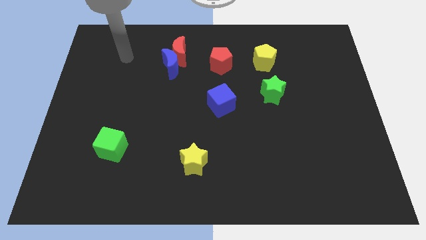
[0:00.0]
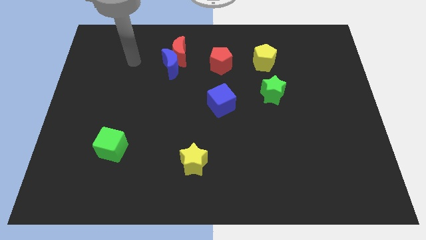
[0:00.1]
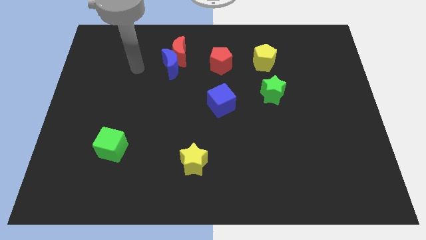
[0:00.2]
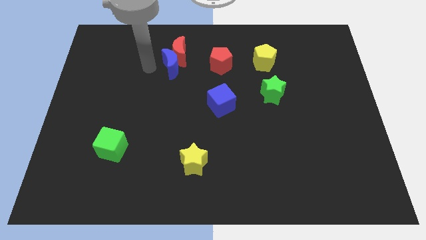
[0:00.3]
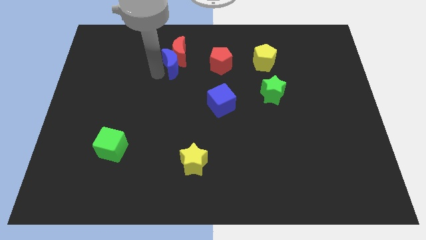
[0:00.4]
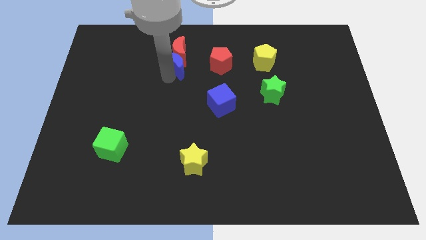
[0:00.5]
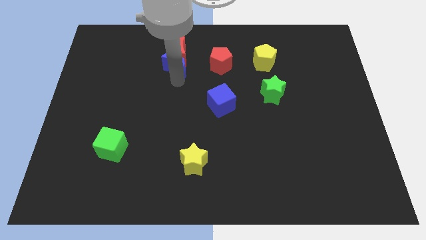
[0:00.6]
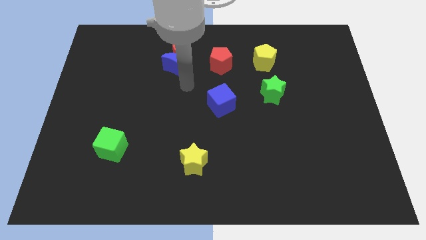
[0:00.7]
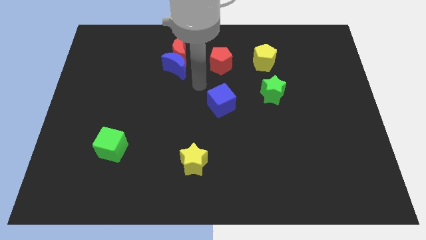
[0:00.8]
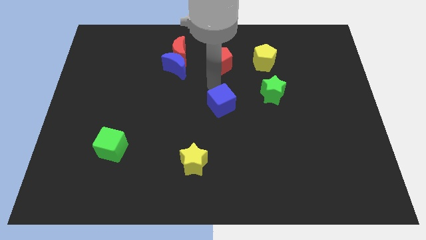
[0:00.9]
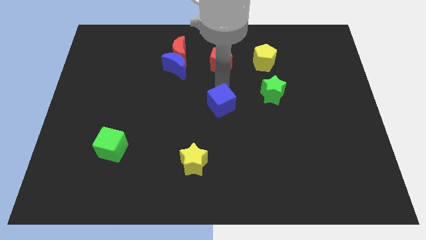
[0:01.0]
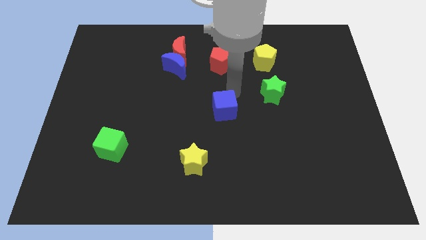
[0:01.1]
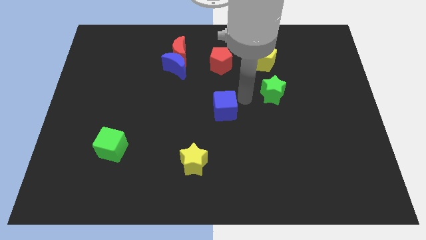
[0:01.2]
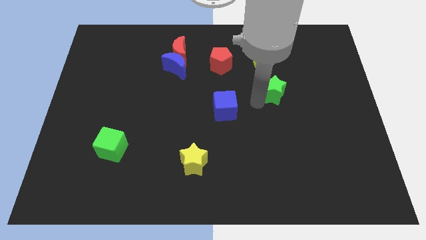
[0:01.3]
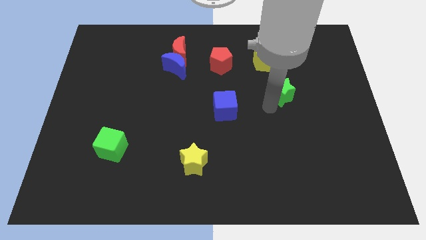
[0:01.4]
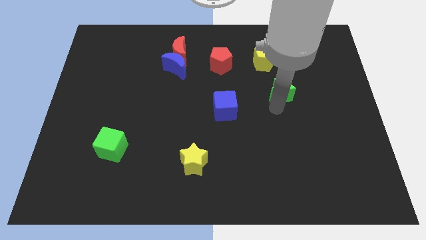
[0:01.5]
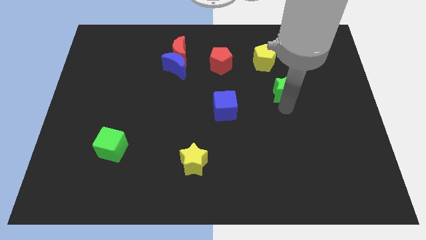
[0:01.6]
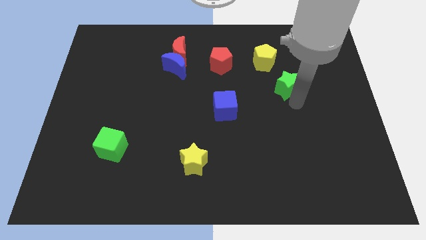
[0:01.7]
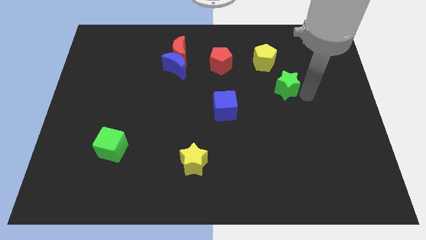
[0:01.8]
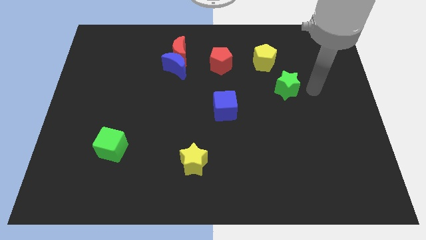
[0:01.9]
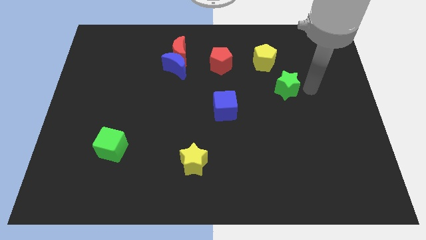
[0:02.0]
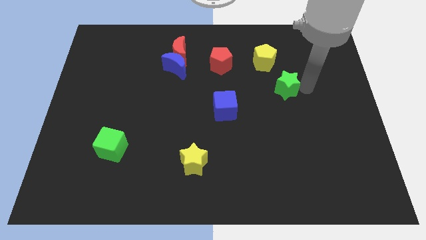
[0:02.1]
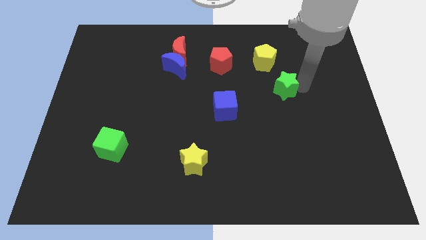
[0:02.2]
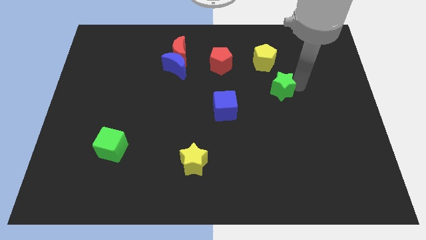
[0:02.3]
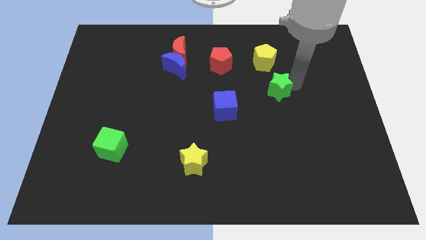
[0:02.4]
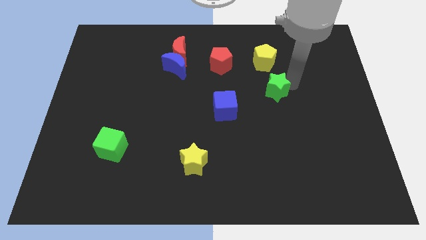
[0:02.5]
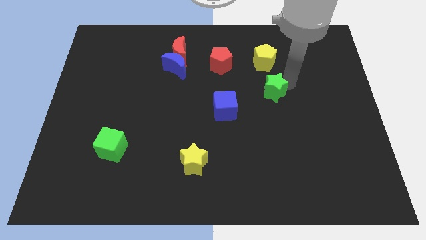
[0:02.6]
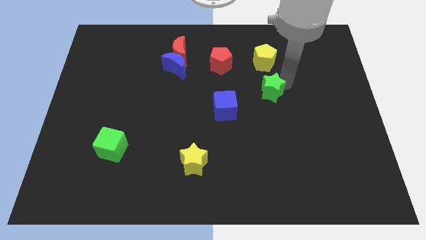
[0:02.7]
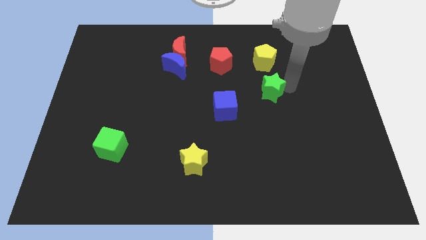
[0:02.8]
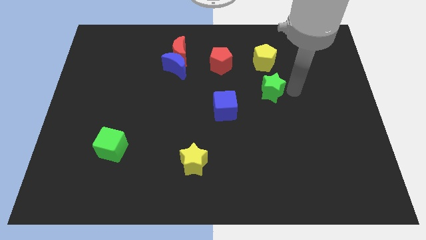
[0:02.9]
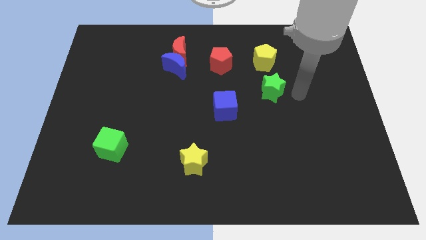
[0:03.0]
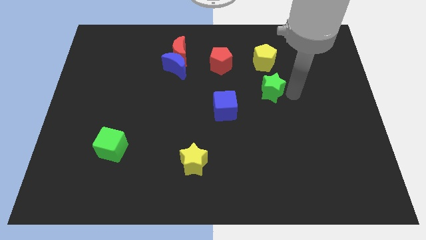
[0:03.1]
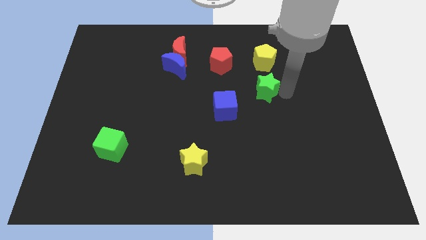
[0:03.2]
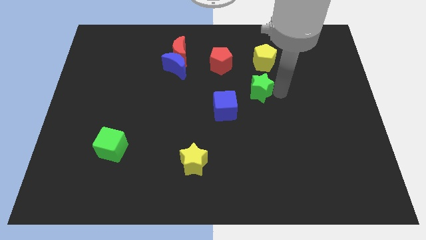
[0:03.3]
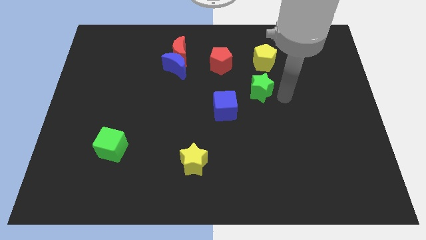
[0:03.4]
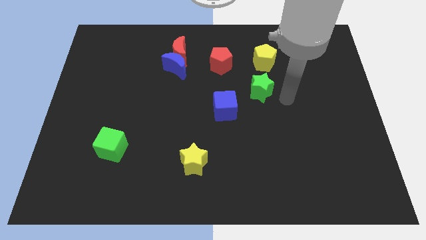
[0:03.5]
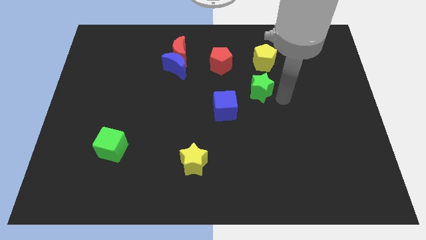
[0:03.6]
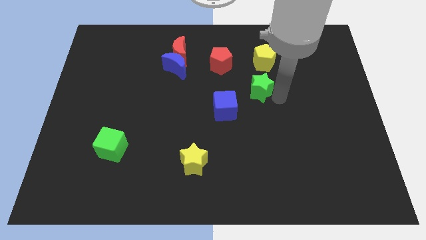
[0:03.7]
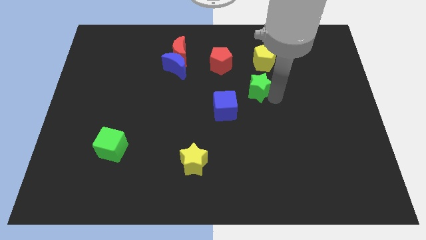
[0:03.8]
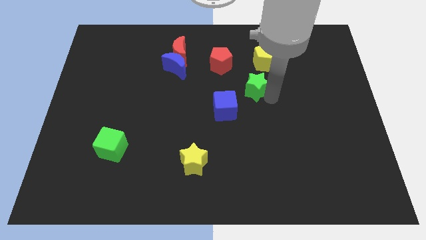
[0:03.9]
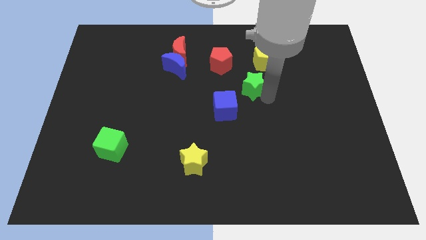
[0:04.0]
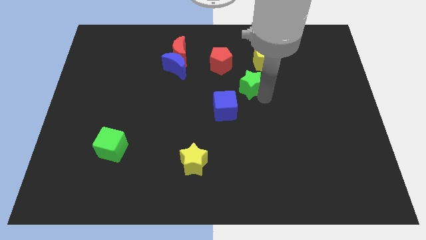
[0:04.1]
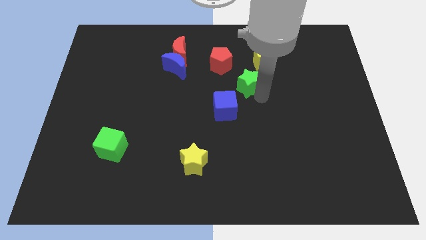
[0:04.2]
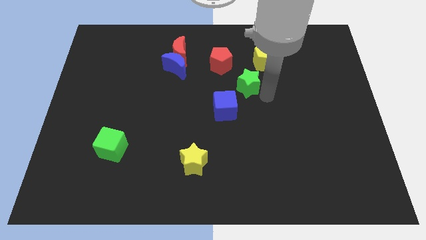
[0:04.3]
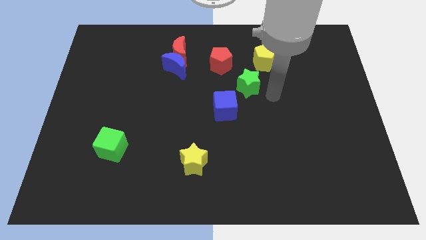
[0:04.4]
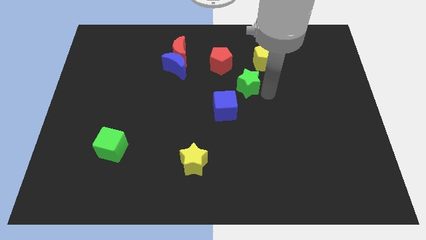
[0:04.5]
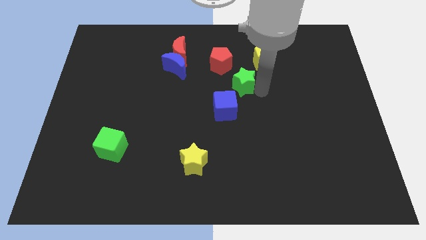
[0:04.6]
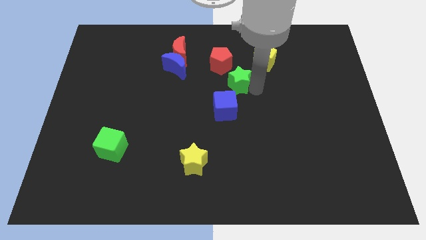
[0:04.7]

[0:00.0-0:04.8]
push the green star slightly to the left

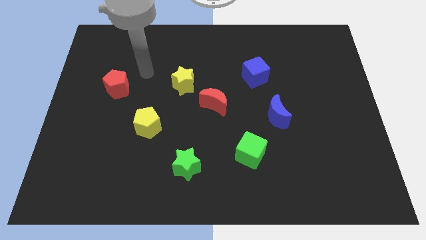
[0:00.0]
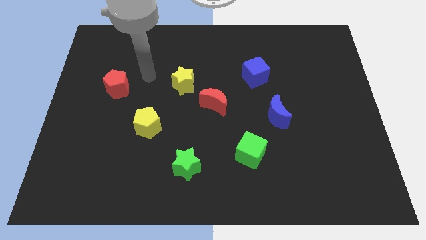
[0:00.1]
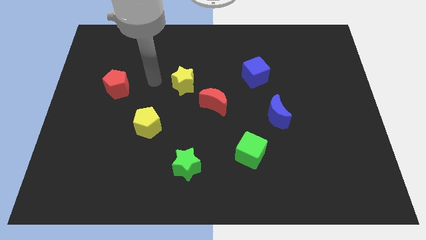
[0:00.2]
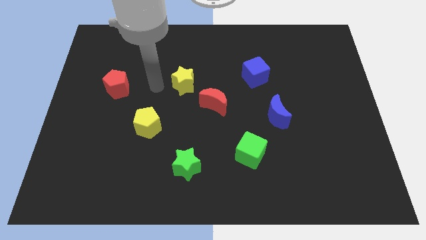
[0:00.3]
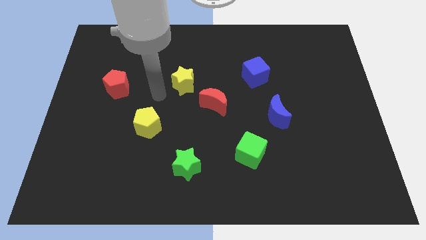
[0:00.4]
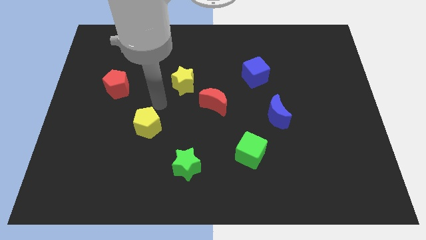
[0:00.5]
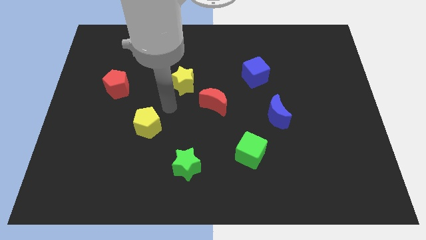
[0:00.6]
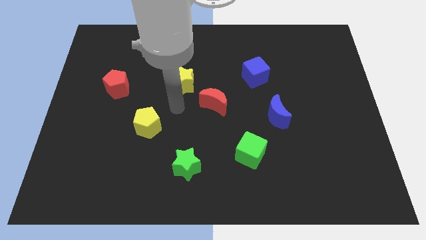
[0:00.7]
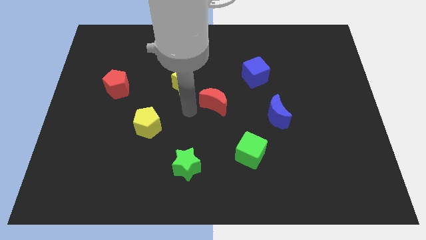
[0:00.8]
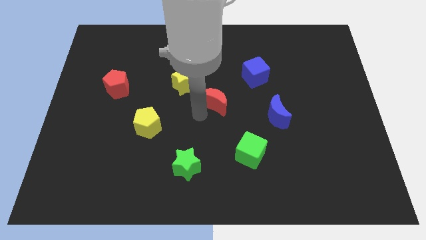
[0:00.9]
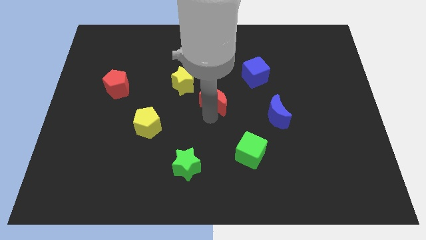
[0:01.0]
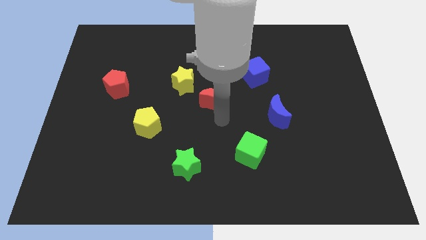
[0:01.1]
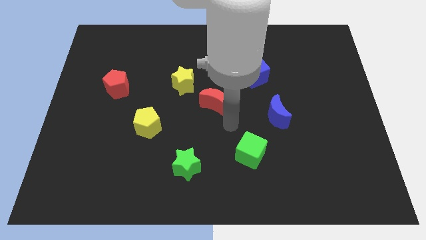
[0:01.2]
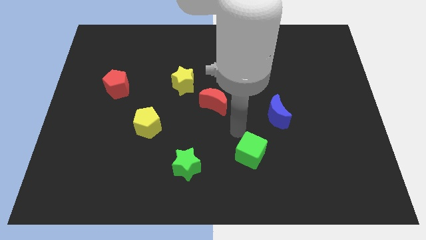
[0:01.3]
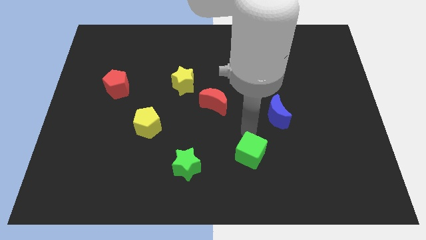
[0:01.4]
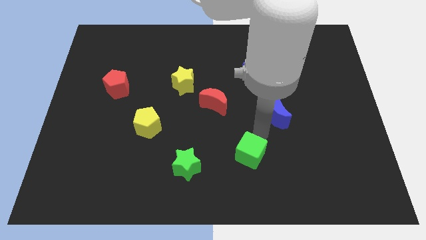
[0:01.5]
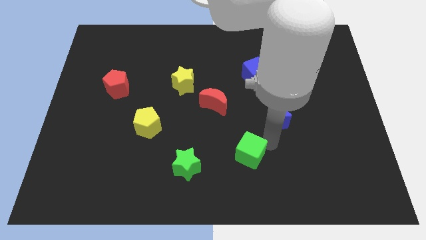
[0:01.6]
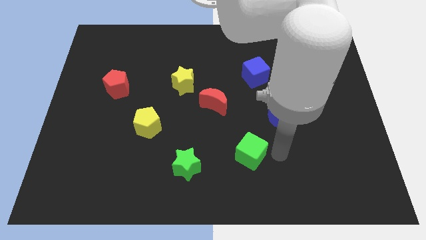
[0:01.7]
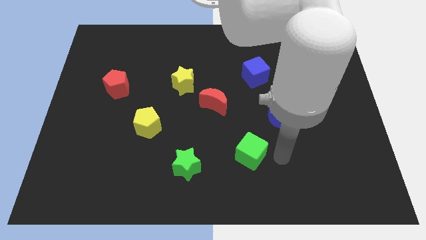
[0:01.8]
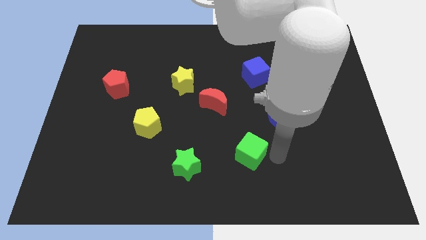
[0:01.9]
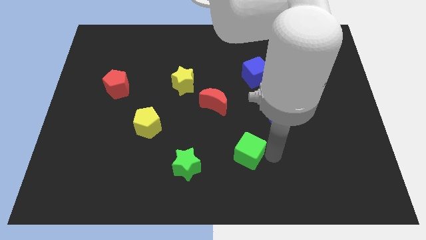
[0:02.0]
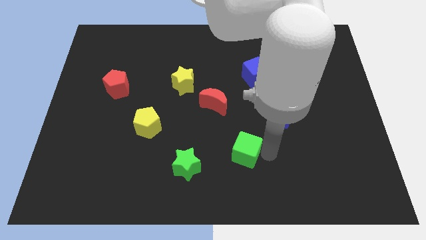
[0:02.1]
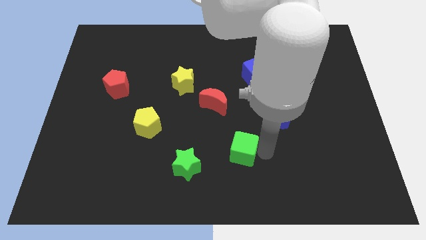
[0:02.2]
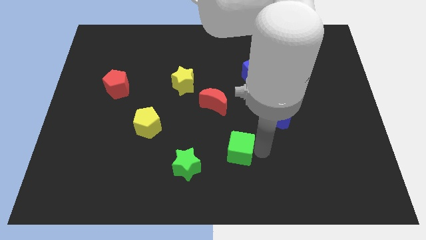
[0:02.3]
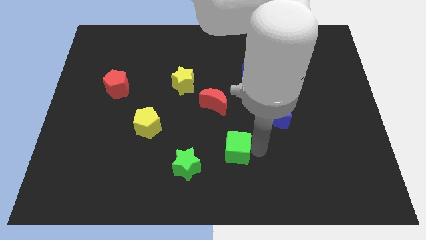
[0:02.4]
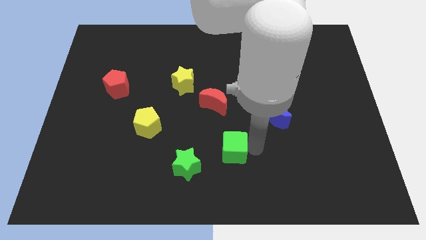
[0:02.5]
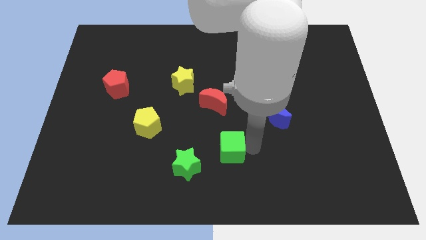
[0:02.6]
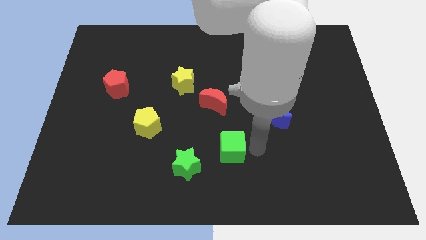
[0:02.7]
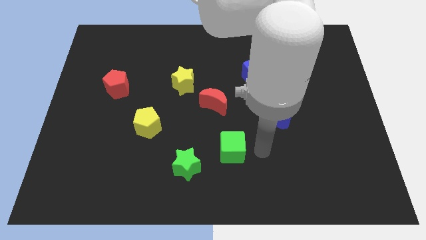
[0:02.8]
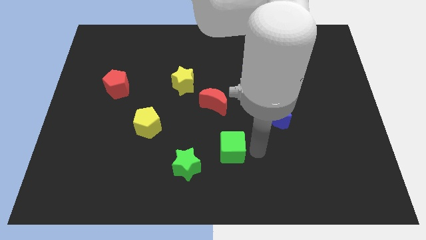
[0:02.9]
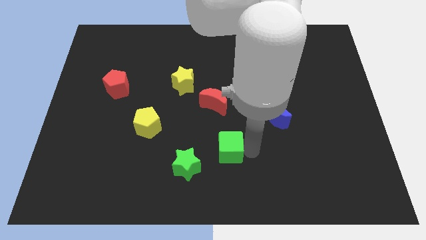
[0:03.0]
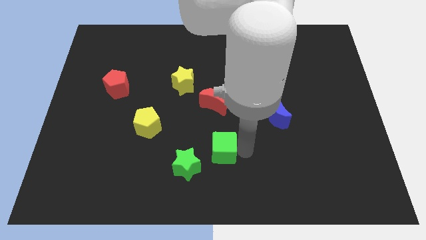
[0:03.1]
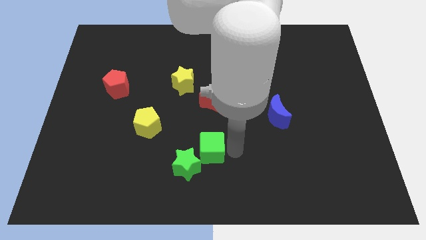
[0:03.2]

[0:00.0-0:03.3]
push the green cube left a bit
